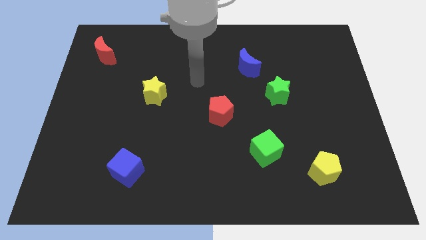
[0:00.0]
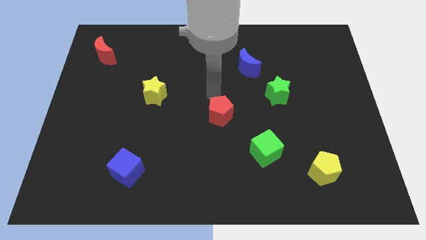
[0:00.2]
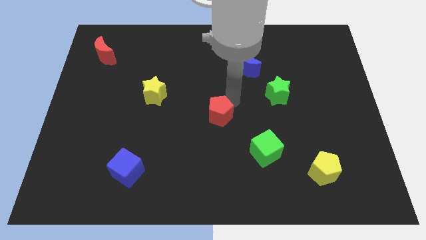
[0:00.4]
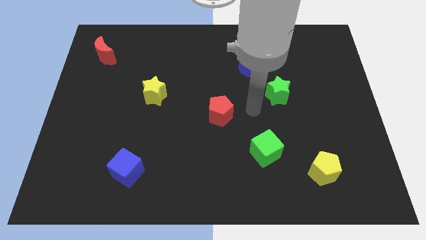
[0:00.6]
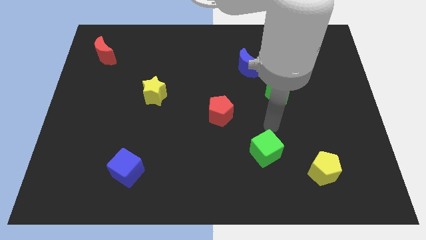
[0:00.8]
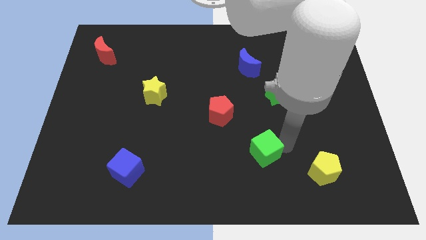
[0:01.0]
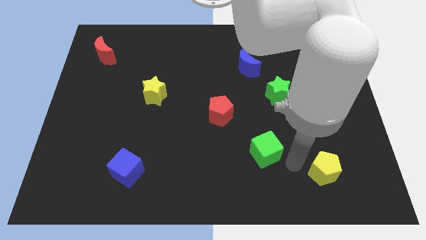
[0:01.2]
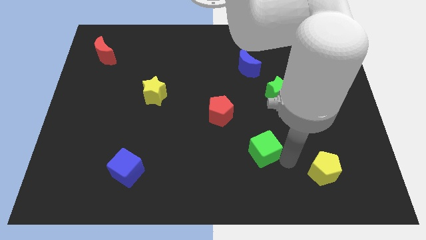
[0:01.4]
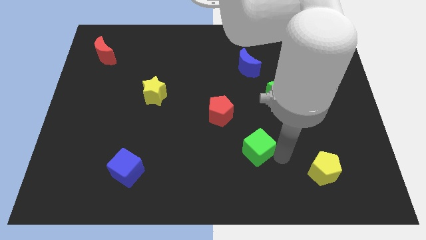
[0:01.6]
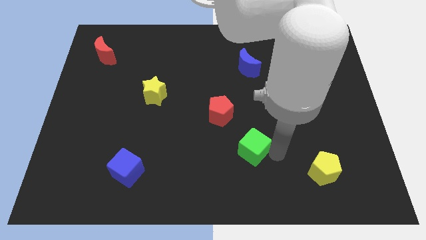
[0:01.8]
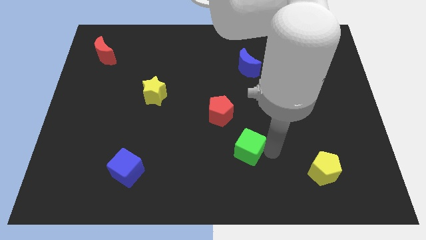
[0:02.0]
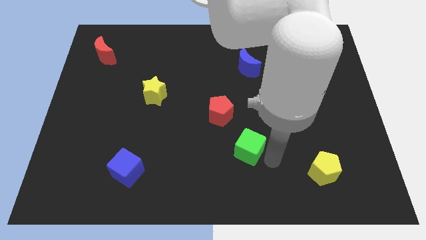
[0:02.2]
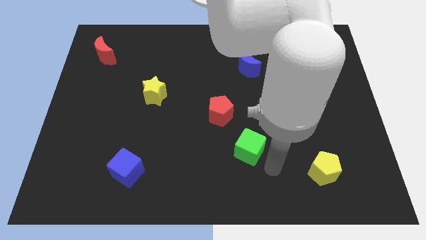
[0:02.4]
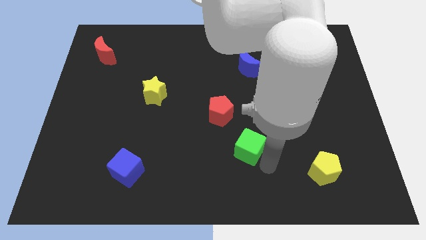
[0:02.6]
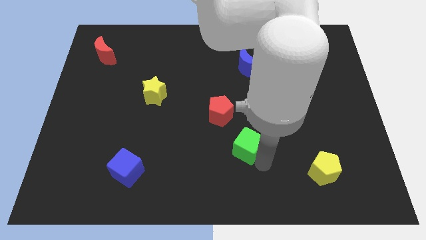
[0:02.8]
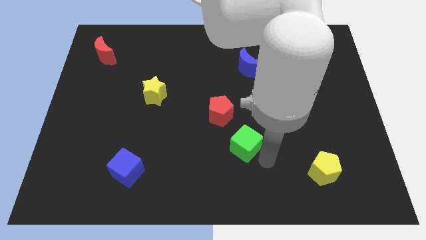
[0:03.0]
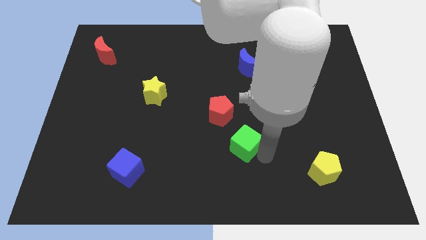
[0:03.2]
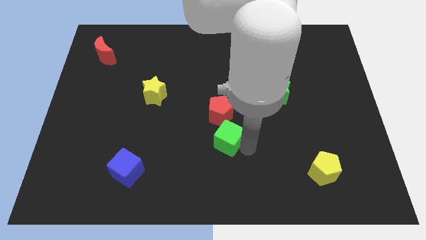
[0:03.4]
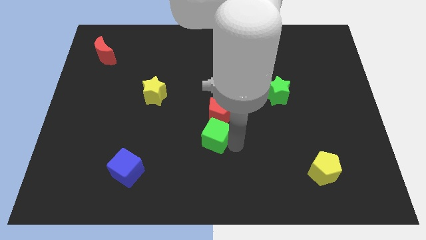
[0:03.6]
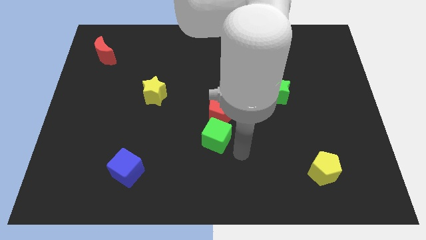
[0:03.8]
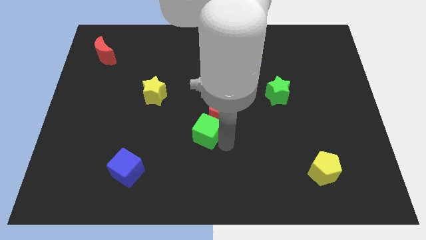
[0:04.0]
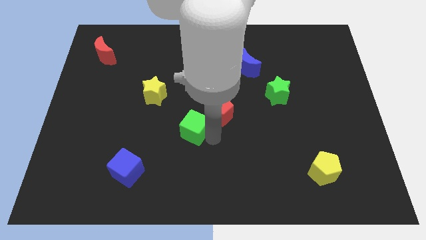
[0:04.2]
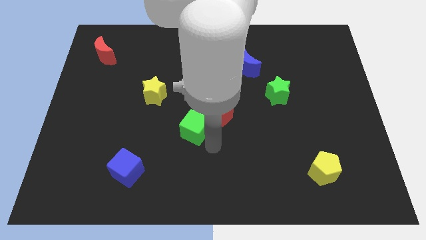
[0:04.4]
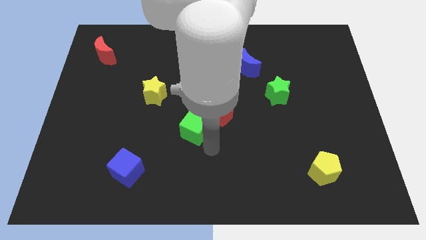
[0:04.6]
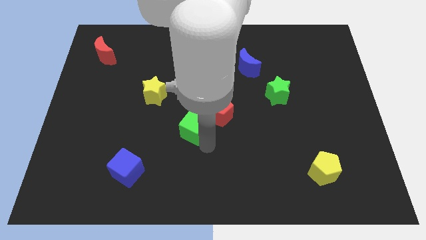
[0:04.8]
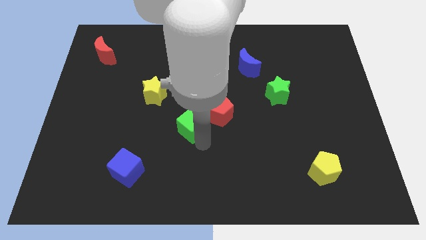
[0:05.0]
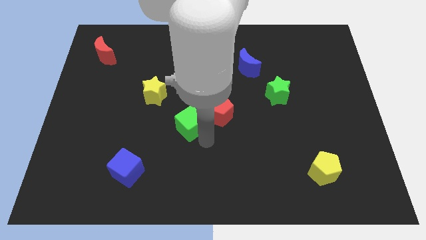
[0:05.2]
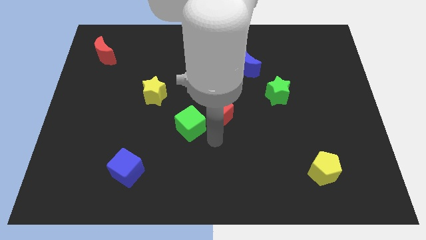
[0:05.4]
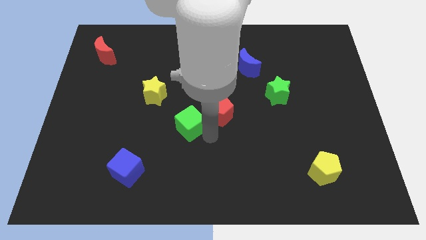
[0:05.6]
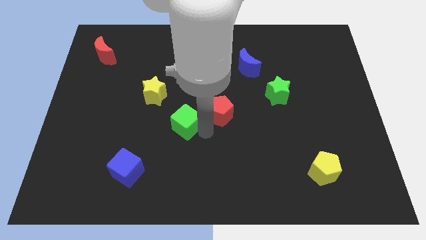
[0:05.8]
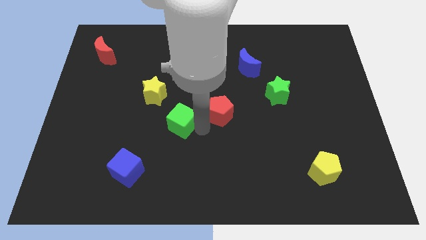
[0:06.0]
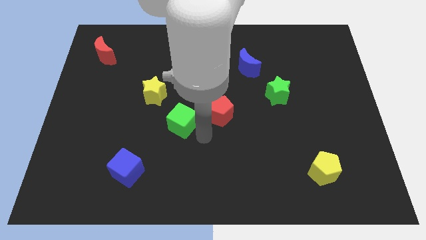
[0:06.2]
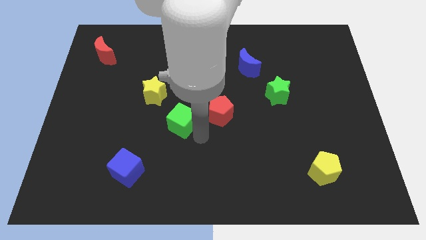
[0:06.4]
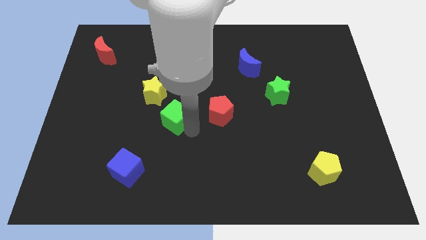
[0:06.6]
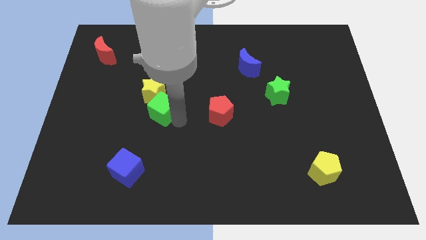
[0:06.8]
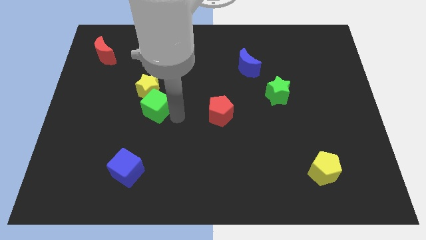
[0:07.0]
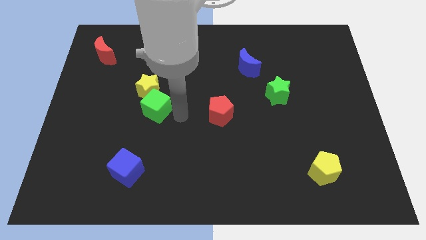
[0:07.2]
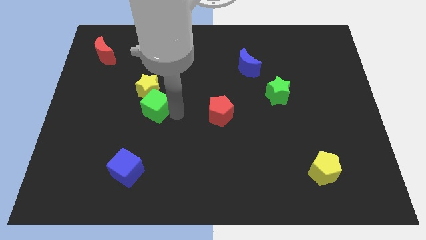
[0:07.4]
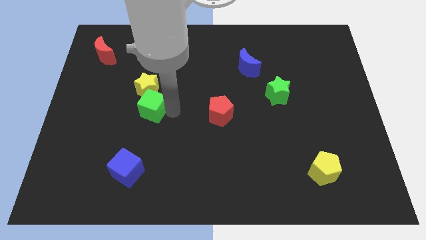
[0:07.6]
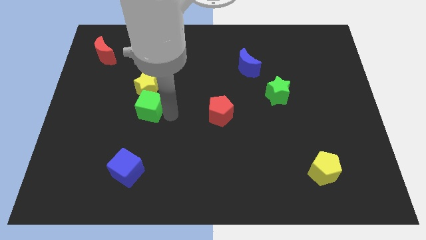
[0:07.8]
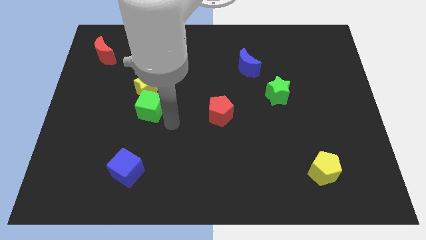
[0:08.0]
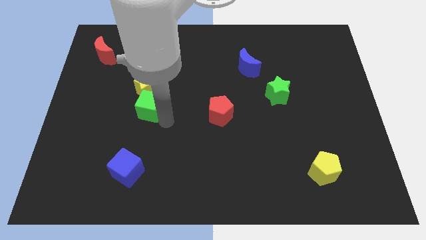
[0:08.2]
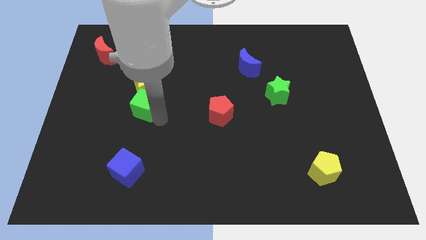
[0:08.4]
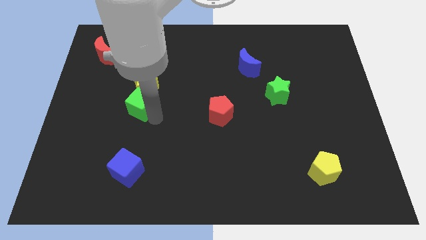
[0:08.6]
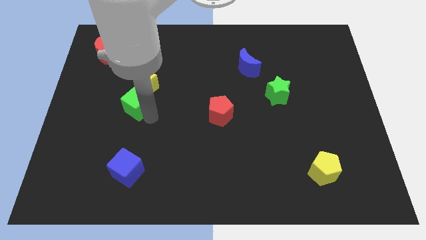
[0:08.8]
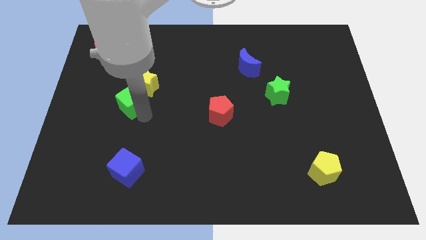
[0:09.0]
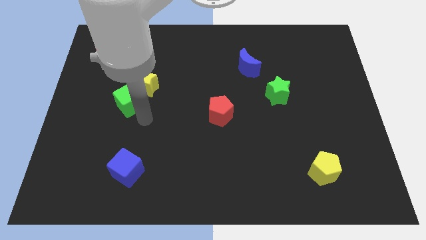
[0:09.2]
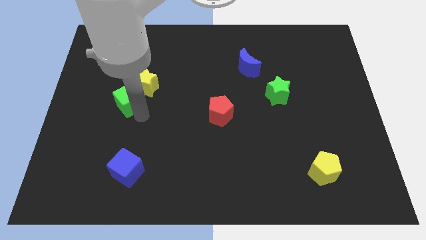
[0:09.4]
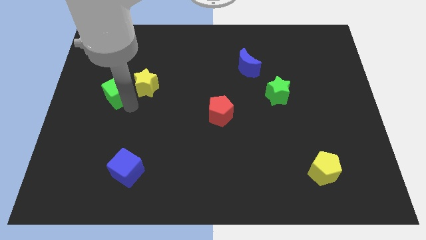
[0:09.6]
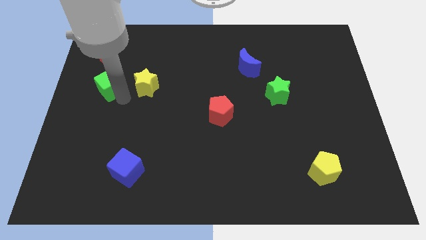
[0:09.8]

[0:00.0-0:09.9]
move the green cube below the red moon

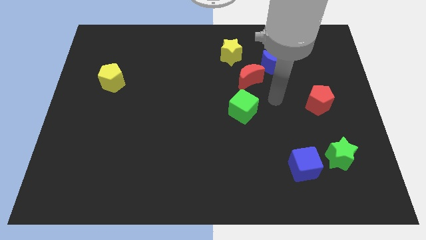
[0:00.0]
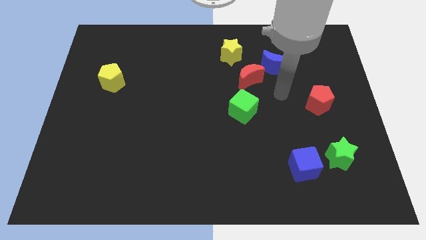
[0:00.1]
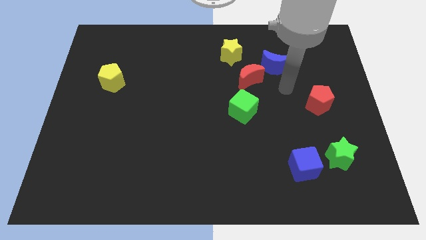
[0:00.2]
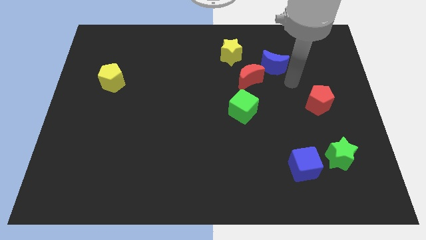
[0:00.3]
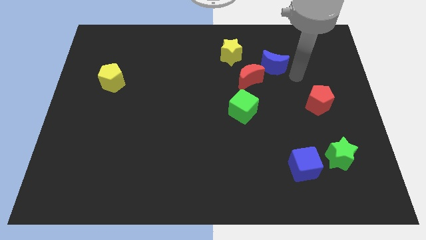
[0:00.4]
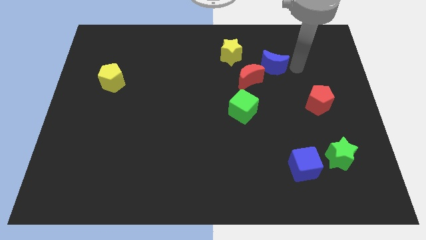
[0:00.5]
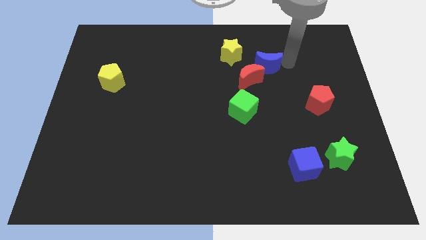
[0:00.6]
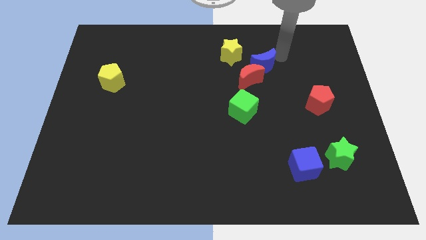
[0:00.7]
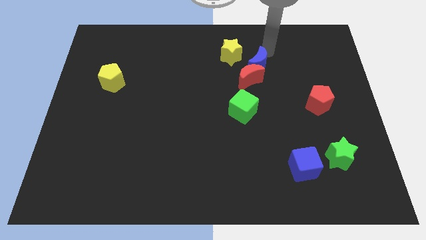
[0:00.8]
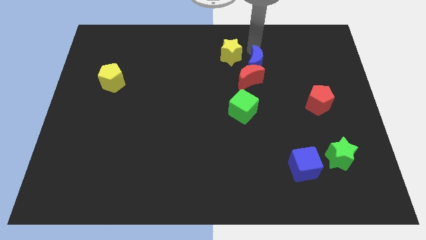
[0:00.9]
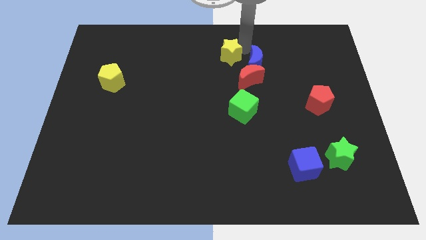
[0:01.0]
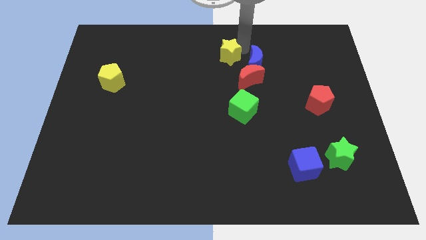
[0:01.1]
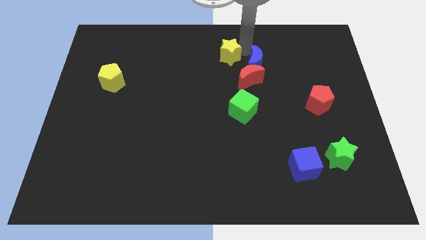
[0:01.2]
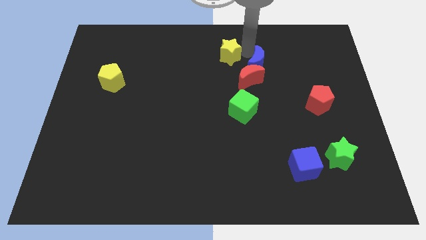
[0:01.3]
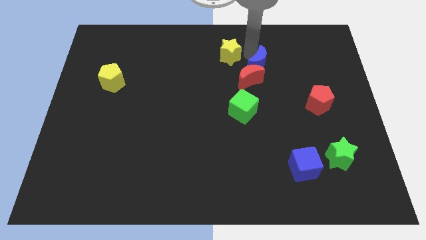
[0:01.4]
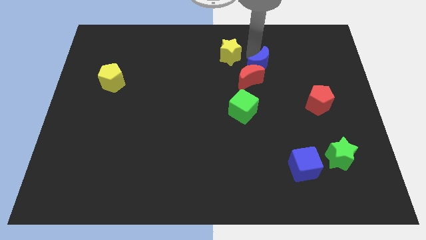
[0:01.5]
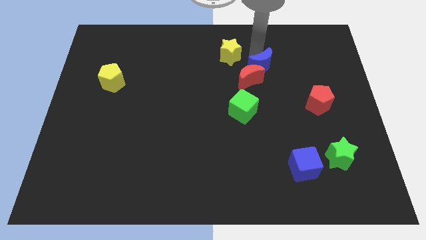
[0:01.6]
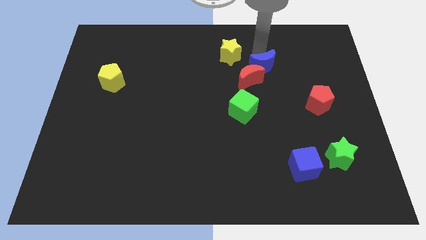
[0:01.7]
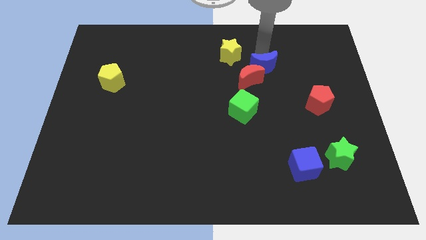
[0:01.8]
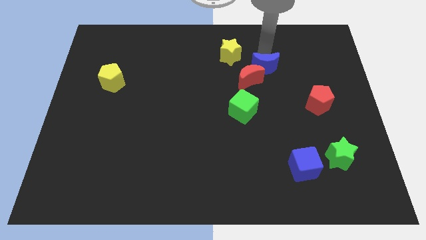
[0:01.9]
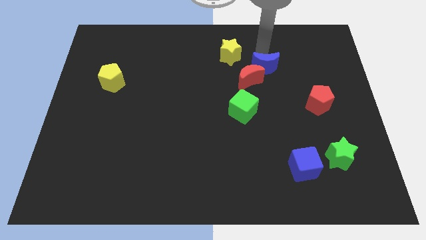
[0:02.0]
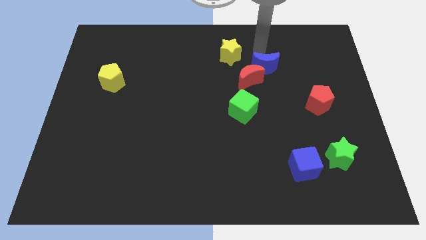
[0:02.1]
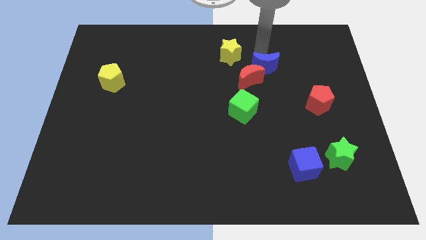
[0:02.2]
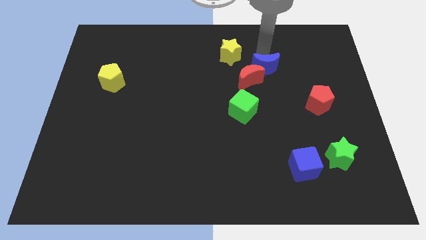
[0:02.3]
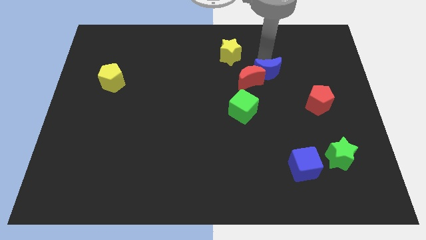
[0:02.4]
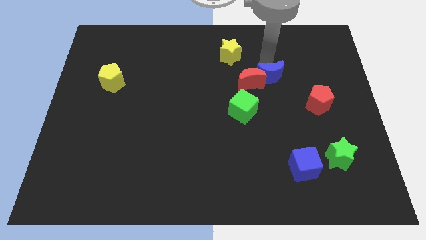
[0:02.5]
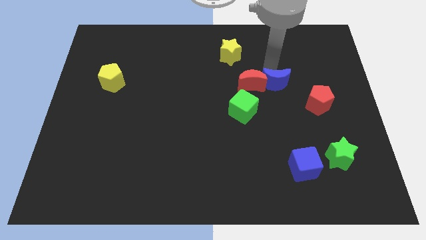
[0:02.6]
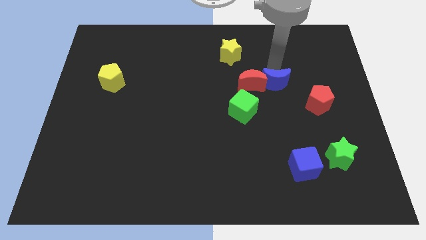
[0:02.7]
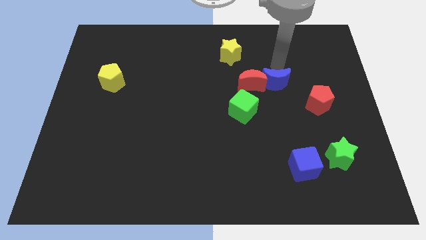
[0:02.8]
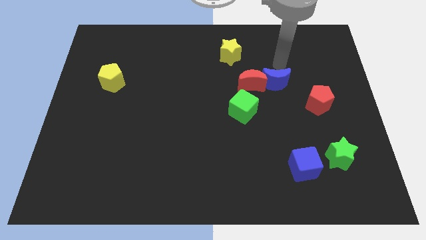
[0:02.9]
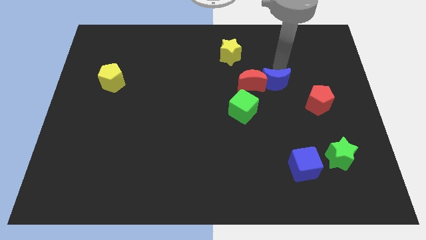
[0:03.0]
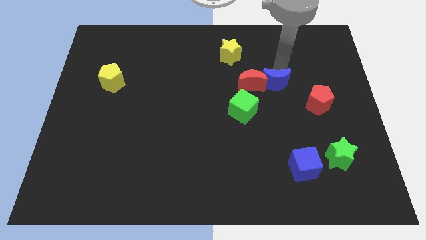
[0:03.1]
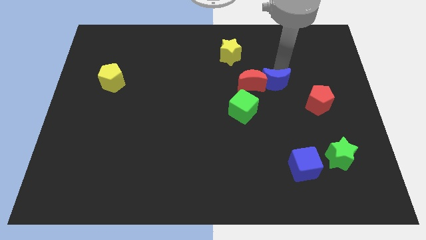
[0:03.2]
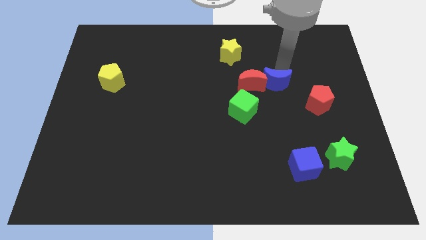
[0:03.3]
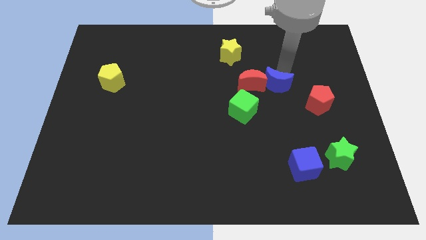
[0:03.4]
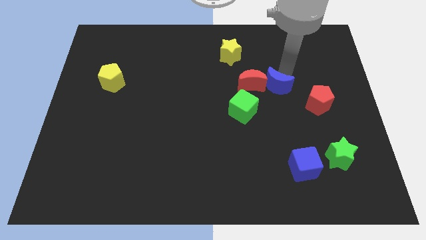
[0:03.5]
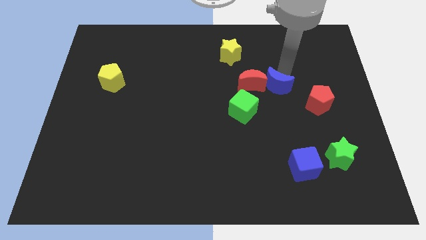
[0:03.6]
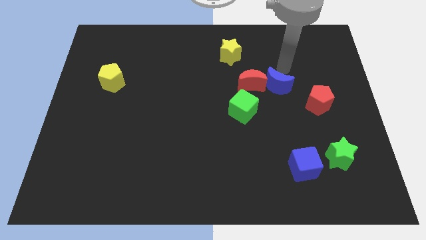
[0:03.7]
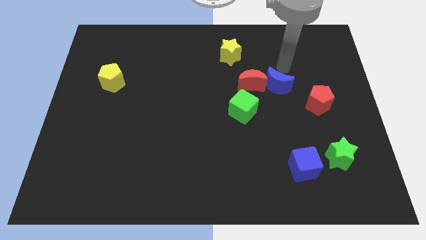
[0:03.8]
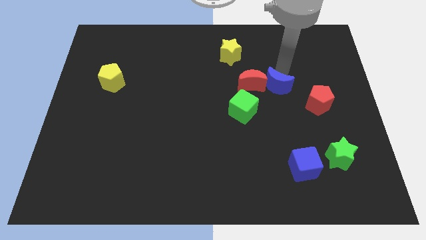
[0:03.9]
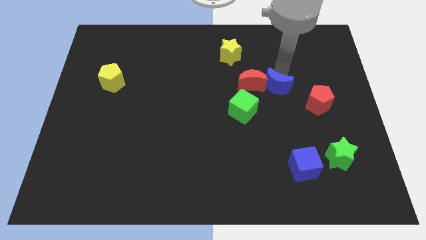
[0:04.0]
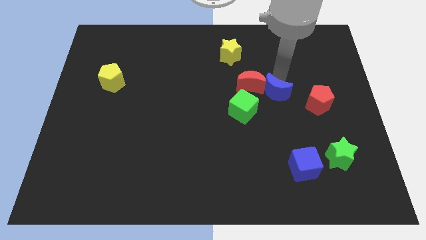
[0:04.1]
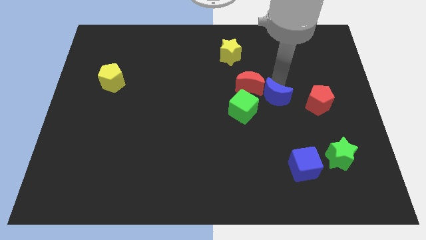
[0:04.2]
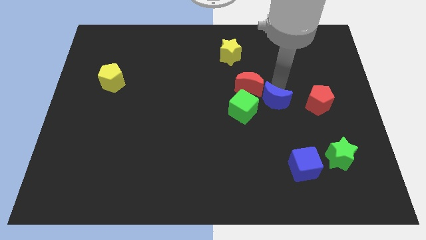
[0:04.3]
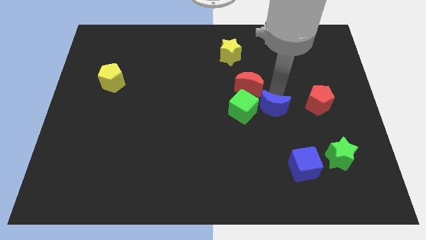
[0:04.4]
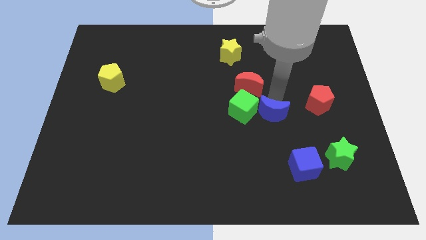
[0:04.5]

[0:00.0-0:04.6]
put the blue moon to the bottom right of the green cube
